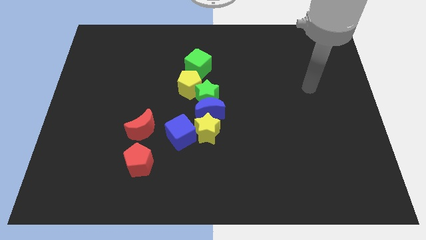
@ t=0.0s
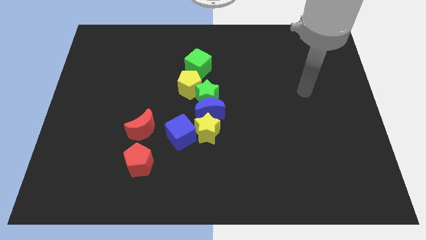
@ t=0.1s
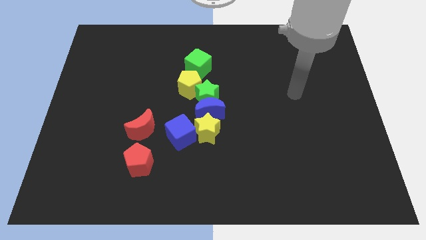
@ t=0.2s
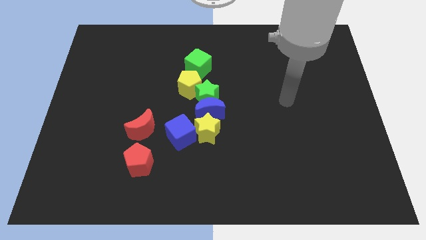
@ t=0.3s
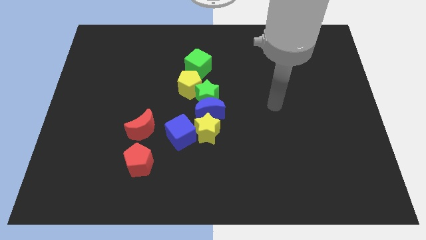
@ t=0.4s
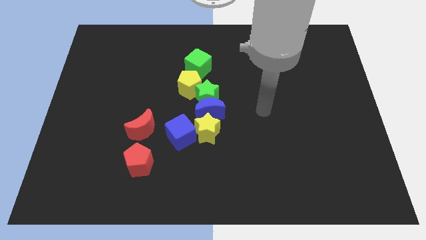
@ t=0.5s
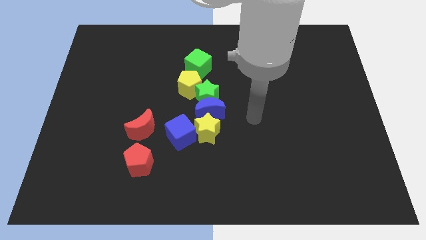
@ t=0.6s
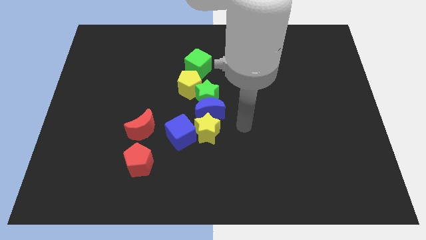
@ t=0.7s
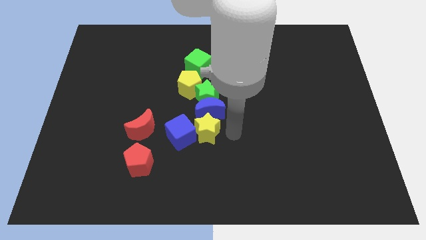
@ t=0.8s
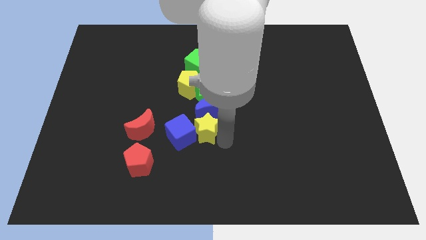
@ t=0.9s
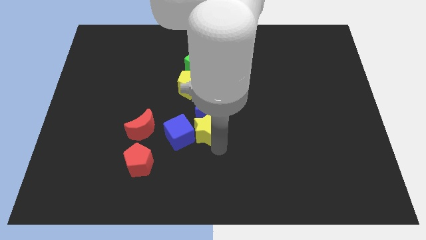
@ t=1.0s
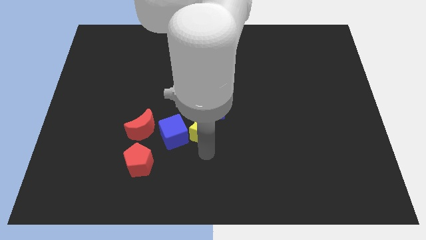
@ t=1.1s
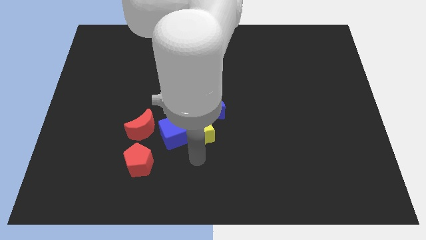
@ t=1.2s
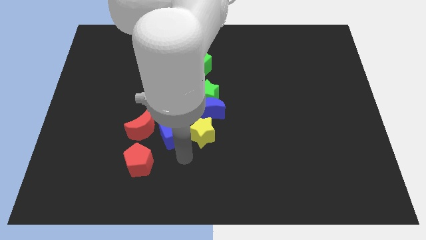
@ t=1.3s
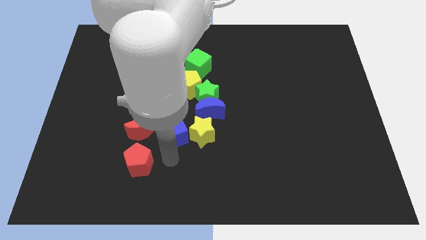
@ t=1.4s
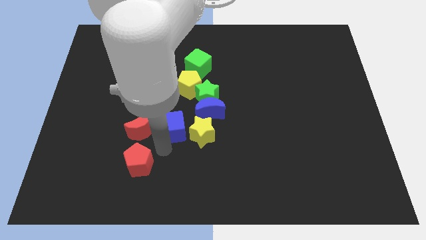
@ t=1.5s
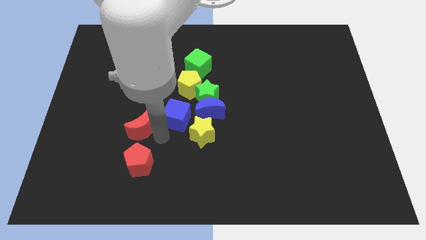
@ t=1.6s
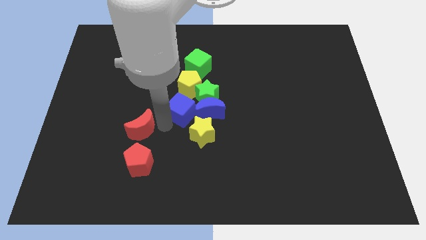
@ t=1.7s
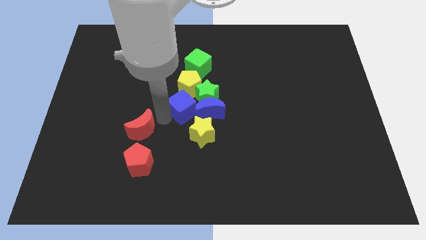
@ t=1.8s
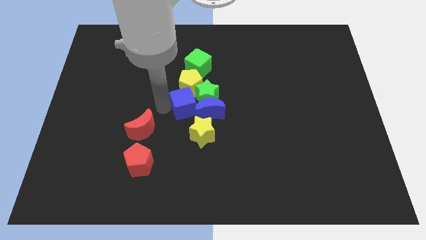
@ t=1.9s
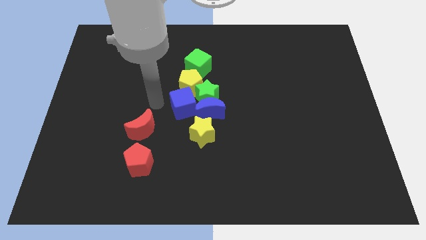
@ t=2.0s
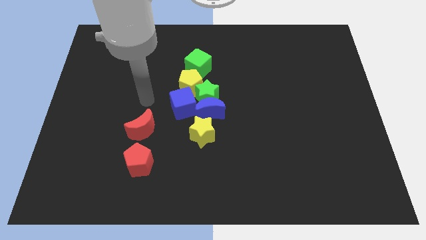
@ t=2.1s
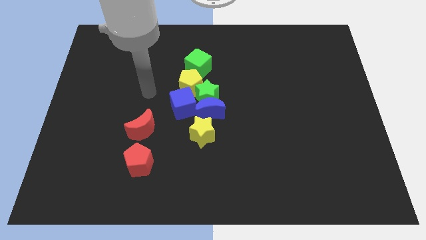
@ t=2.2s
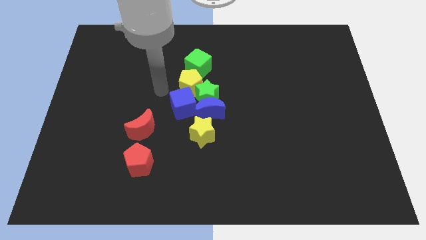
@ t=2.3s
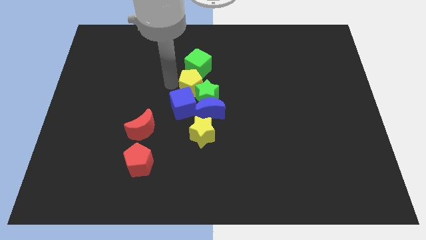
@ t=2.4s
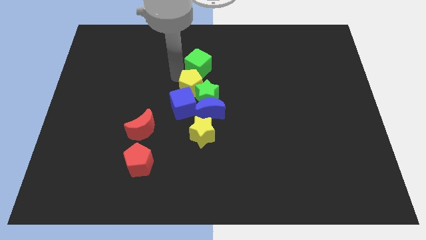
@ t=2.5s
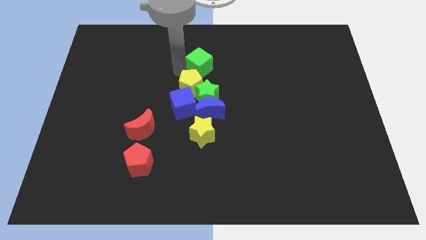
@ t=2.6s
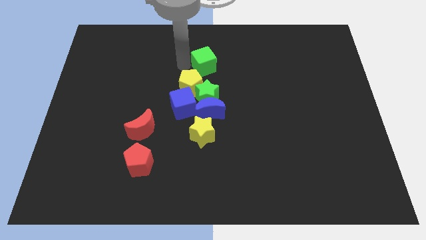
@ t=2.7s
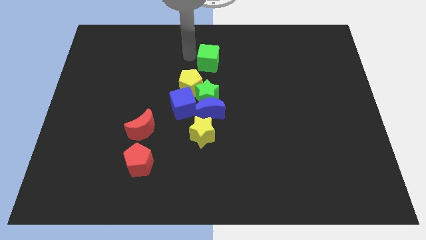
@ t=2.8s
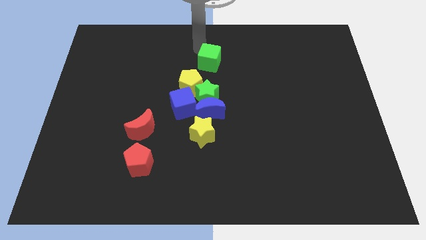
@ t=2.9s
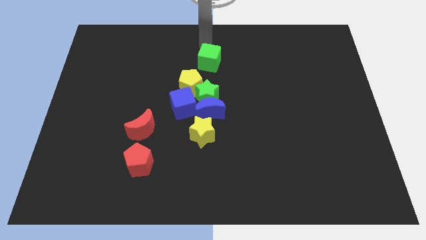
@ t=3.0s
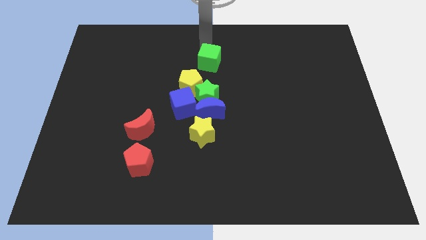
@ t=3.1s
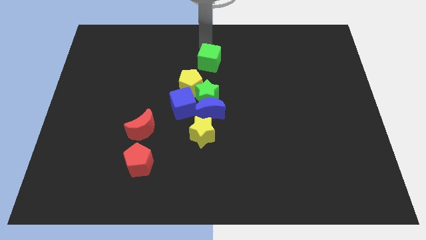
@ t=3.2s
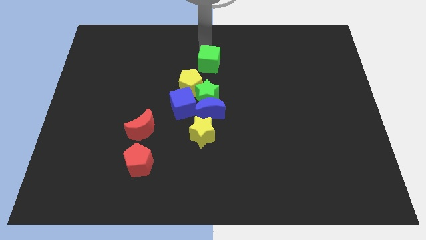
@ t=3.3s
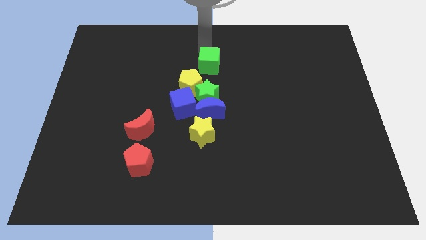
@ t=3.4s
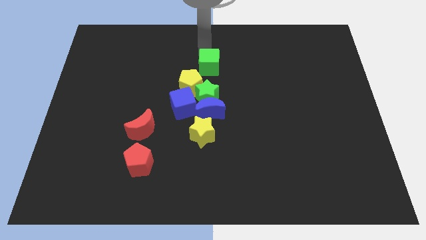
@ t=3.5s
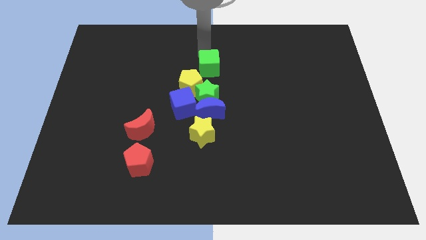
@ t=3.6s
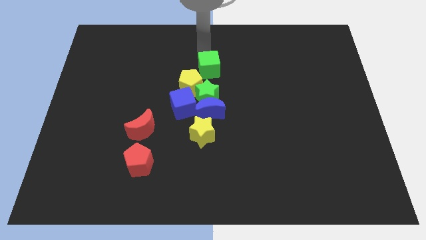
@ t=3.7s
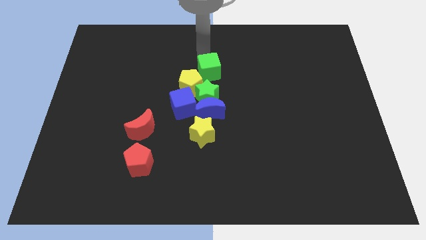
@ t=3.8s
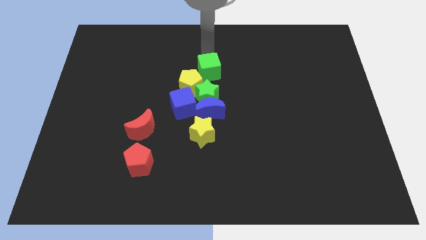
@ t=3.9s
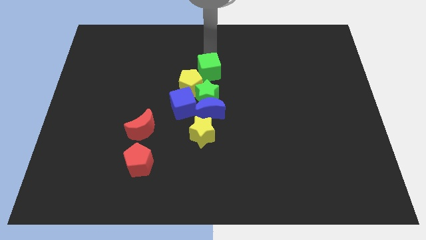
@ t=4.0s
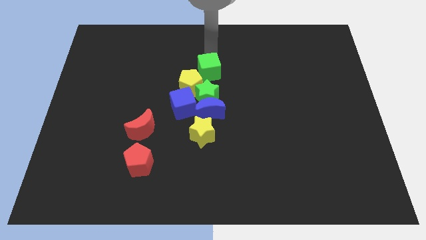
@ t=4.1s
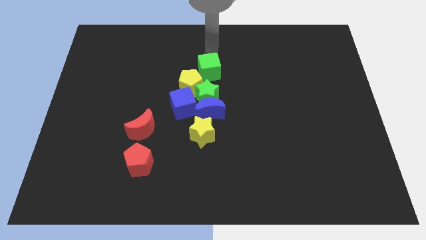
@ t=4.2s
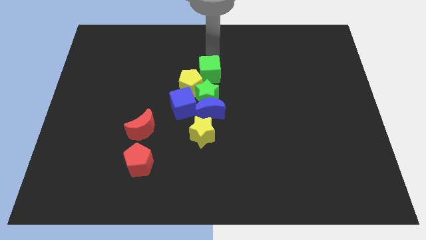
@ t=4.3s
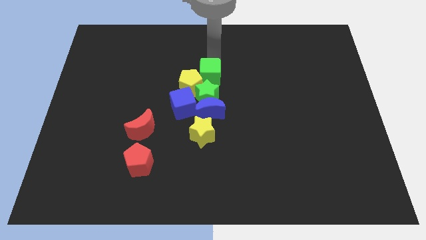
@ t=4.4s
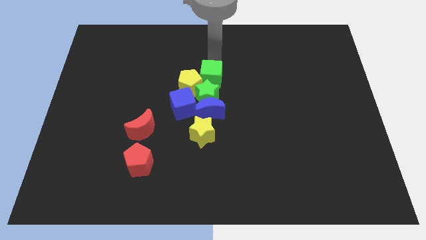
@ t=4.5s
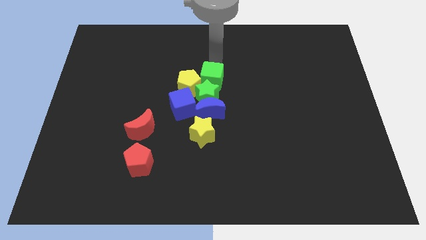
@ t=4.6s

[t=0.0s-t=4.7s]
slide the green cube next to the green star

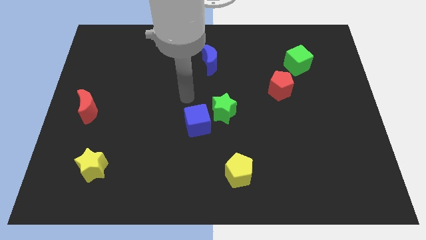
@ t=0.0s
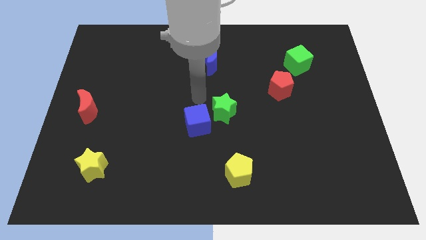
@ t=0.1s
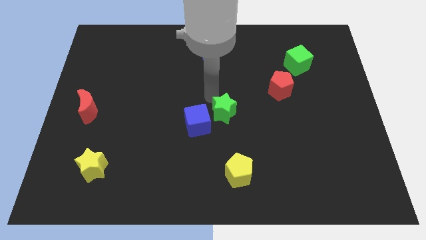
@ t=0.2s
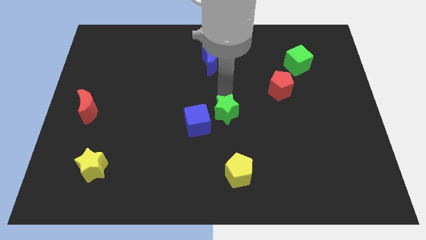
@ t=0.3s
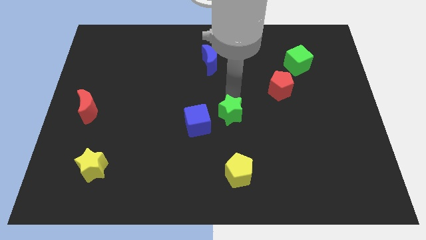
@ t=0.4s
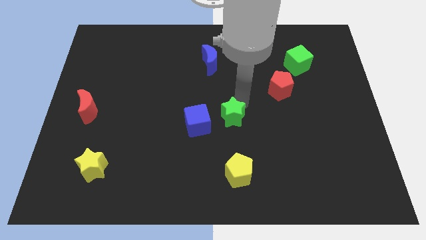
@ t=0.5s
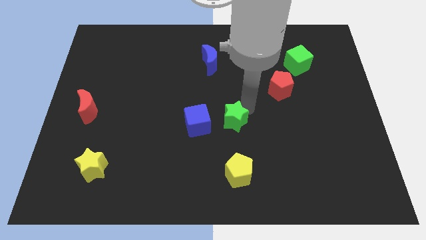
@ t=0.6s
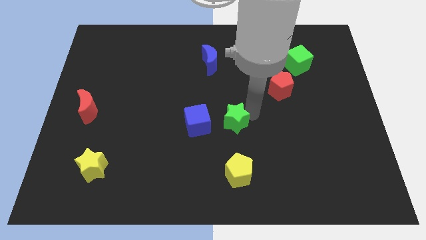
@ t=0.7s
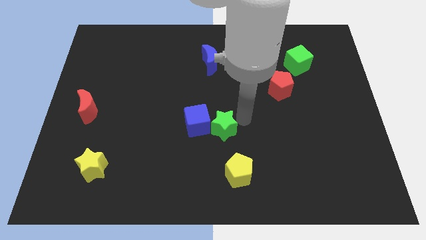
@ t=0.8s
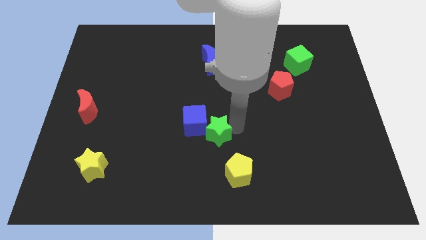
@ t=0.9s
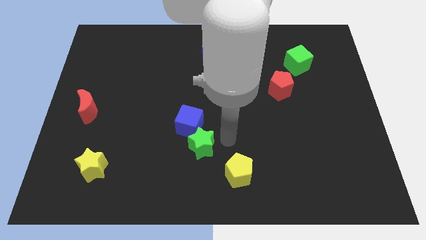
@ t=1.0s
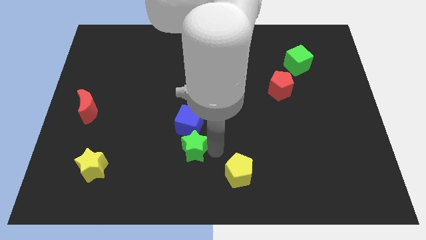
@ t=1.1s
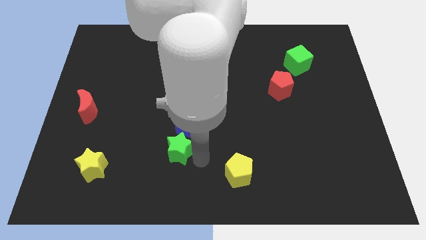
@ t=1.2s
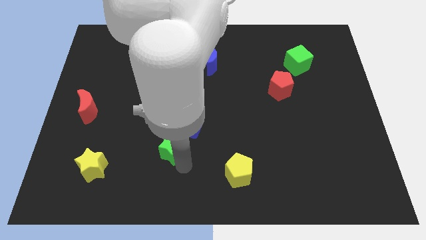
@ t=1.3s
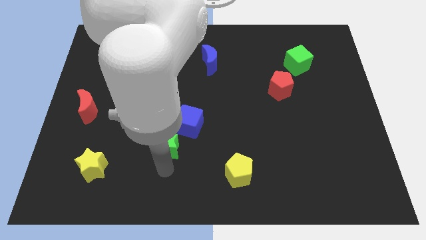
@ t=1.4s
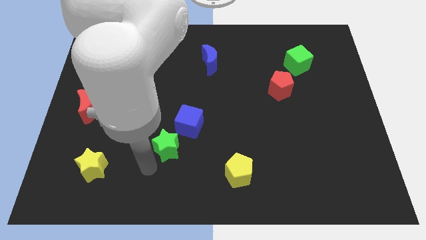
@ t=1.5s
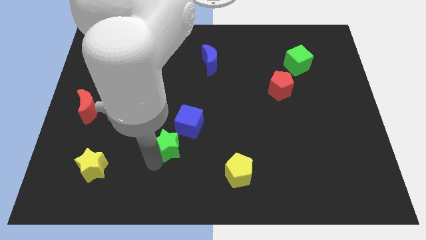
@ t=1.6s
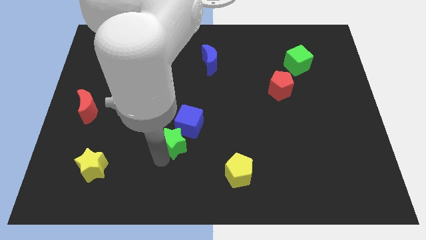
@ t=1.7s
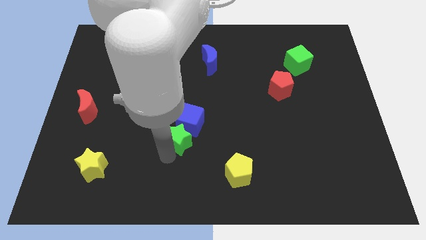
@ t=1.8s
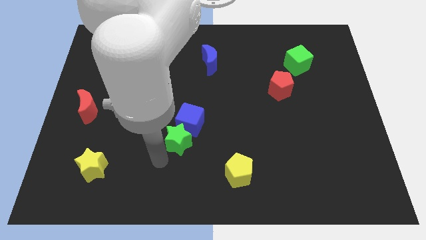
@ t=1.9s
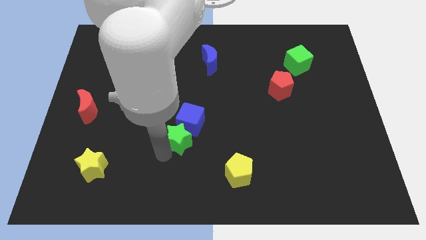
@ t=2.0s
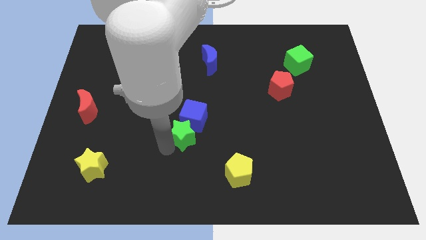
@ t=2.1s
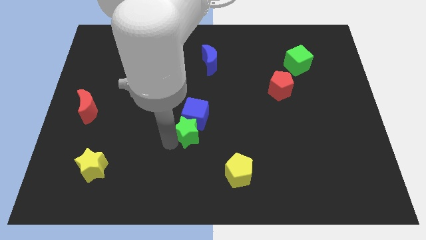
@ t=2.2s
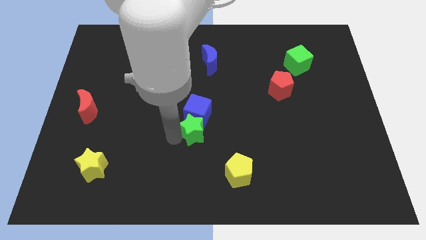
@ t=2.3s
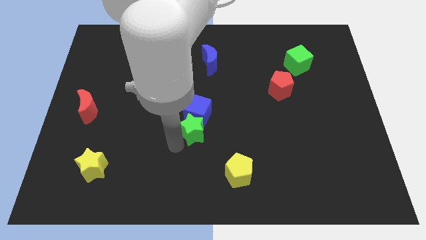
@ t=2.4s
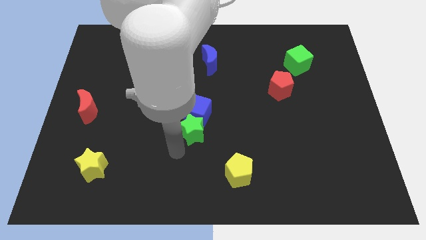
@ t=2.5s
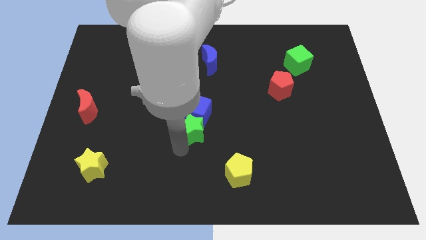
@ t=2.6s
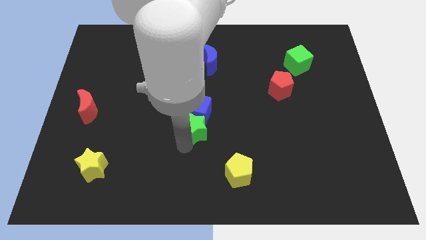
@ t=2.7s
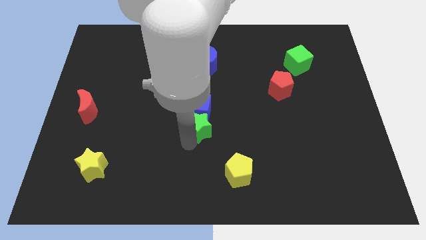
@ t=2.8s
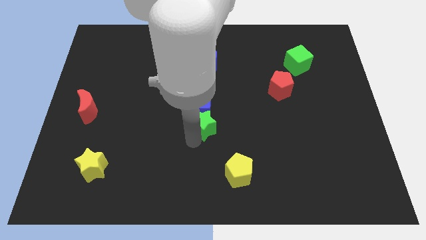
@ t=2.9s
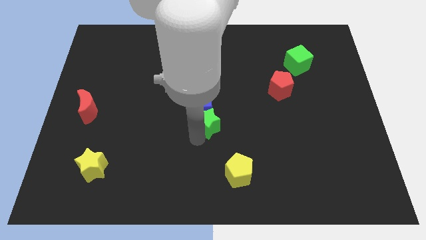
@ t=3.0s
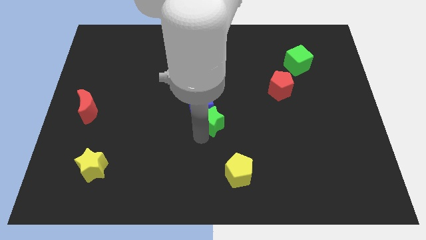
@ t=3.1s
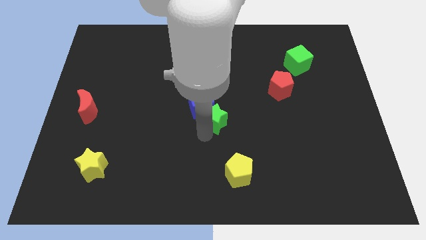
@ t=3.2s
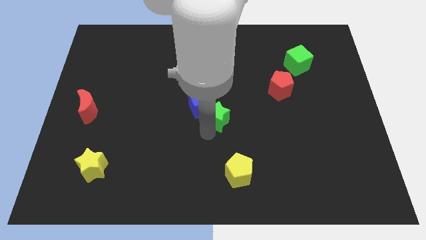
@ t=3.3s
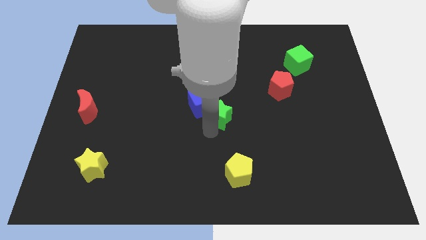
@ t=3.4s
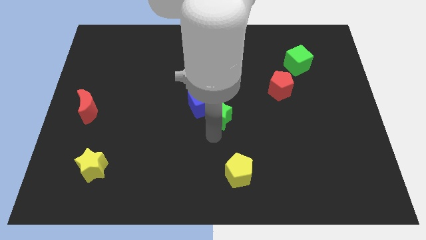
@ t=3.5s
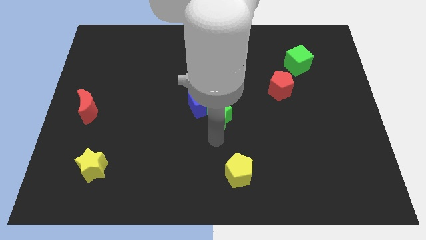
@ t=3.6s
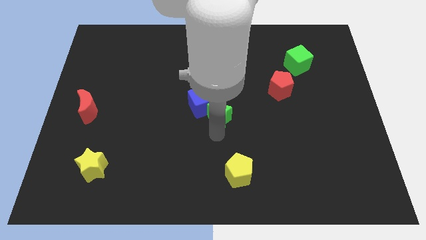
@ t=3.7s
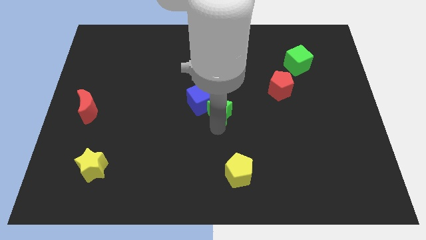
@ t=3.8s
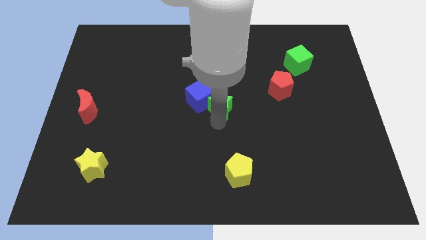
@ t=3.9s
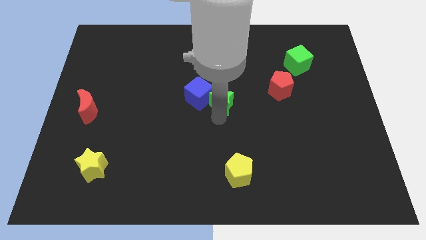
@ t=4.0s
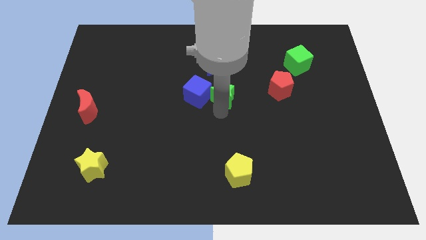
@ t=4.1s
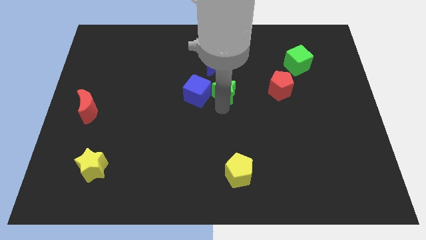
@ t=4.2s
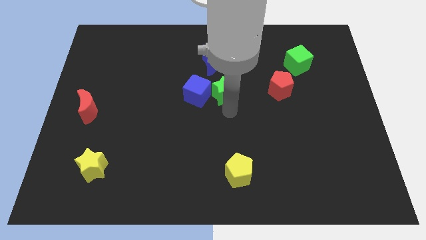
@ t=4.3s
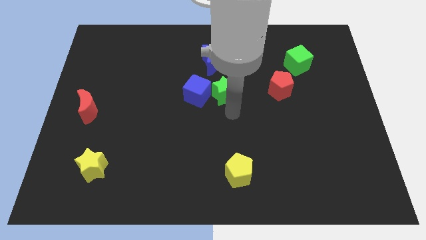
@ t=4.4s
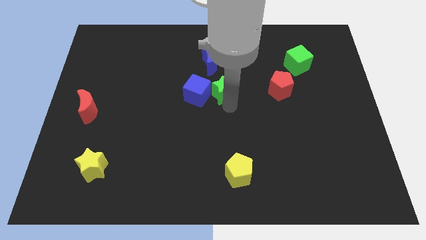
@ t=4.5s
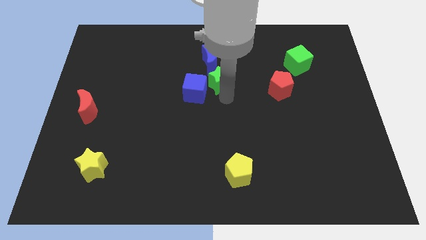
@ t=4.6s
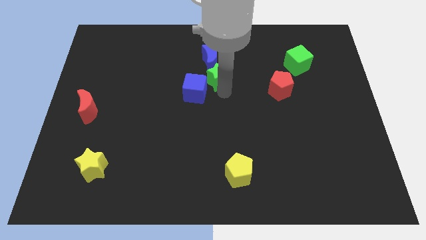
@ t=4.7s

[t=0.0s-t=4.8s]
push the green star close to the blue moon
